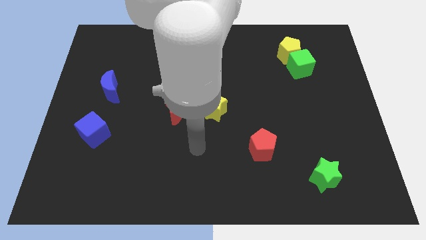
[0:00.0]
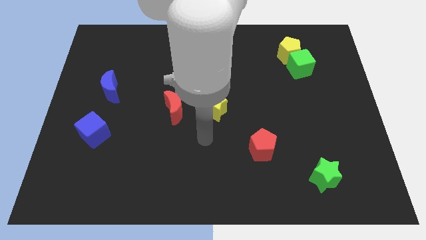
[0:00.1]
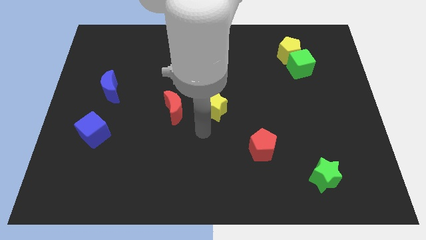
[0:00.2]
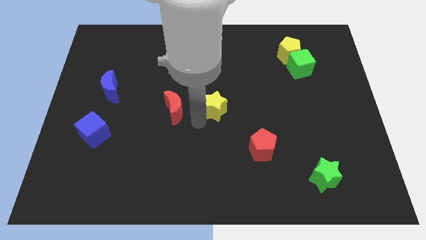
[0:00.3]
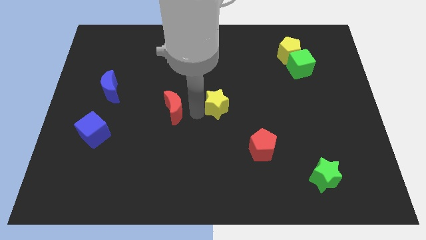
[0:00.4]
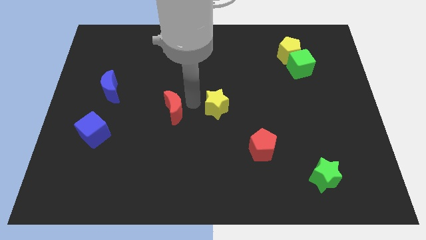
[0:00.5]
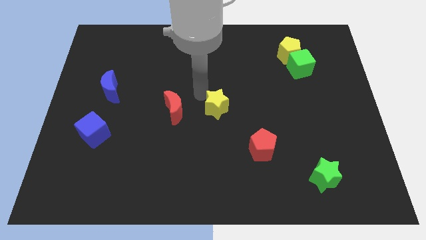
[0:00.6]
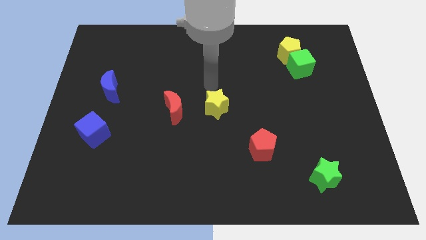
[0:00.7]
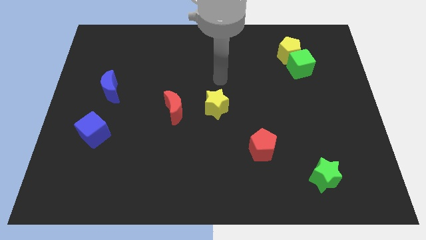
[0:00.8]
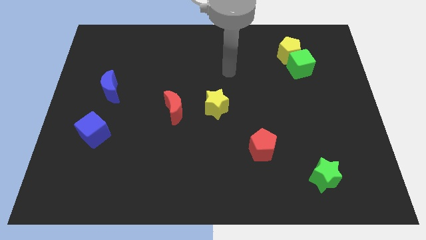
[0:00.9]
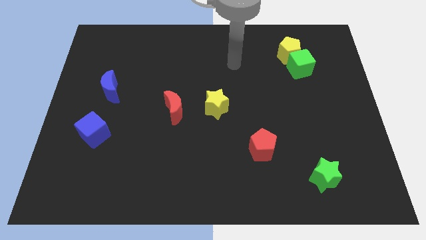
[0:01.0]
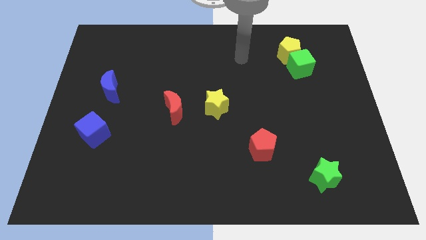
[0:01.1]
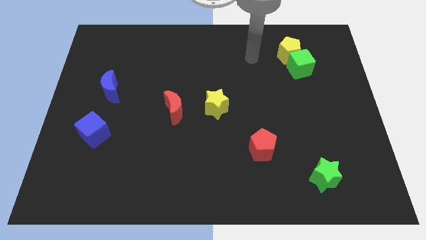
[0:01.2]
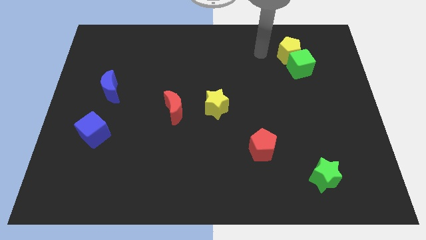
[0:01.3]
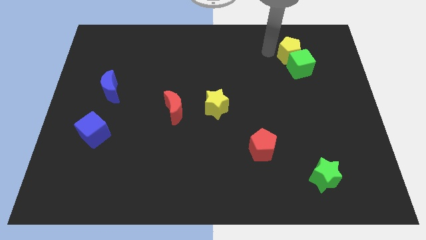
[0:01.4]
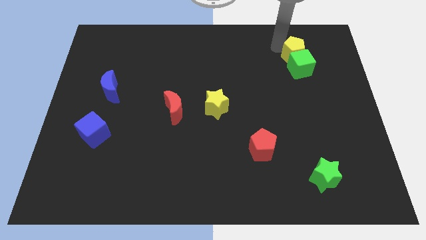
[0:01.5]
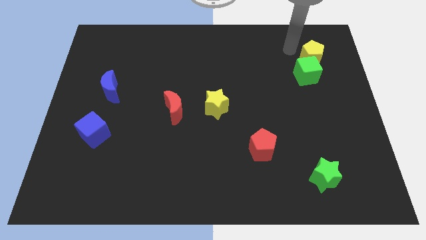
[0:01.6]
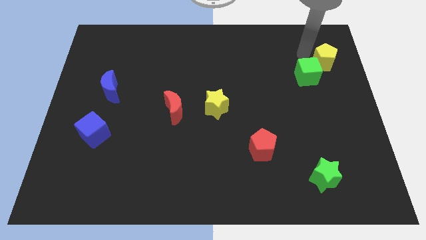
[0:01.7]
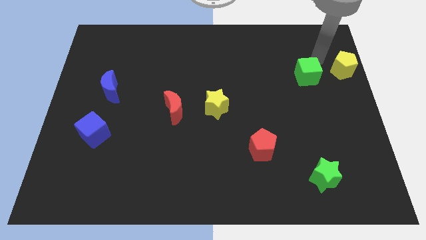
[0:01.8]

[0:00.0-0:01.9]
move the green cube away from the yellow pentagon

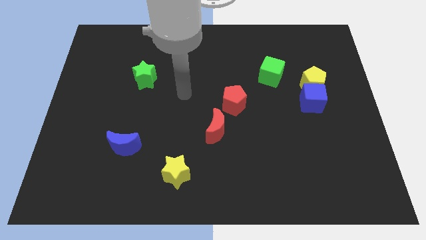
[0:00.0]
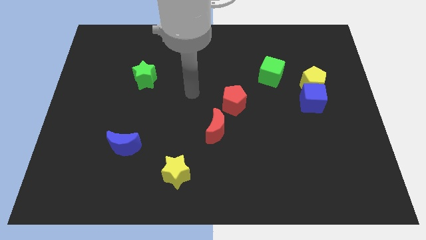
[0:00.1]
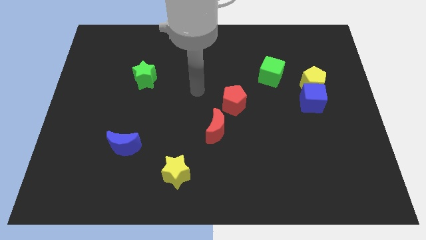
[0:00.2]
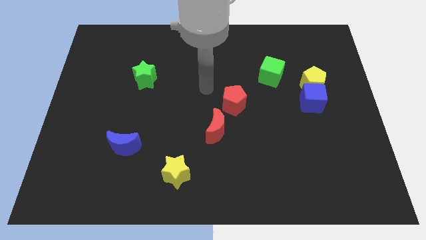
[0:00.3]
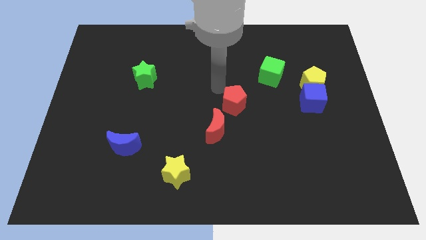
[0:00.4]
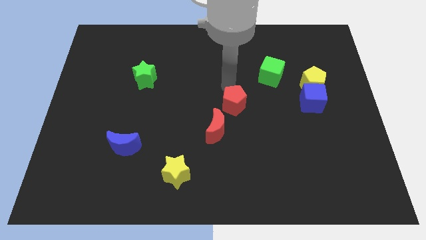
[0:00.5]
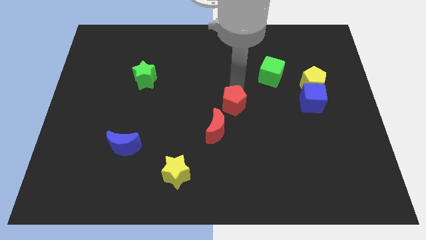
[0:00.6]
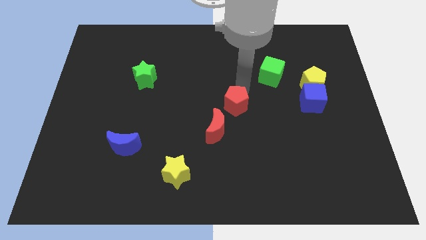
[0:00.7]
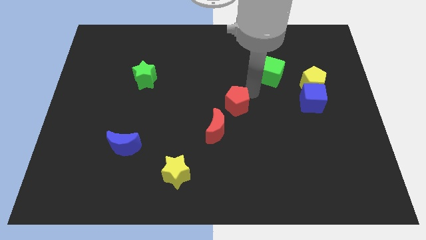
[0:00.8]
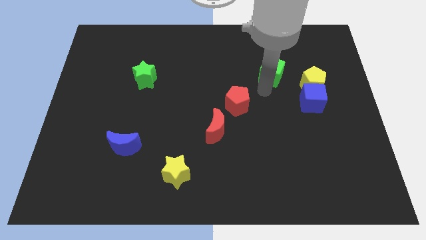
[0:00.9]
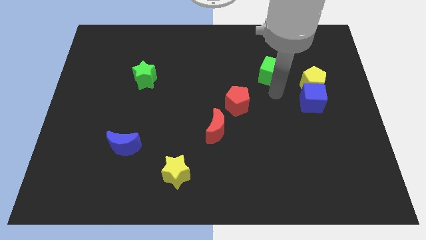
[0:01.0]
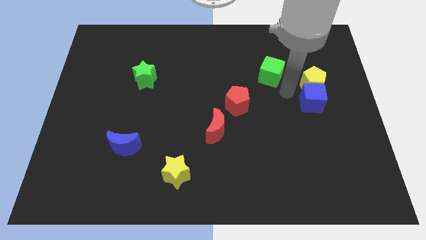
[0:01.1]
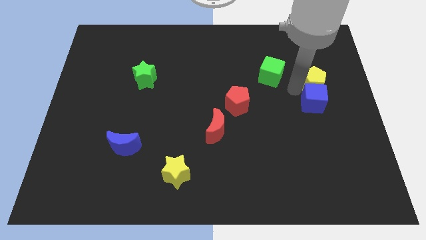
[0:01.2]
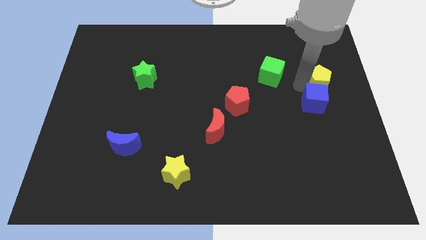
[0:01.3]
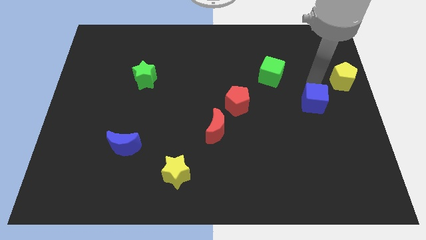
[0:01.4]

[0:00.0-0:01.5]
pull the blue cube apart from the yellow pentagon

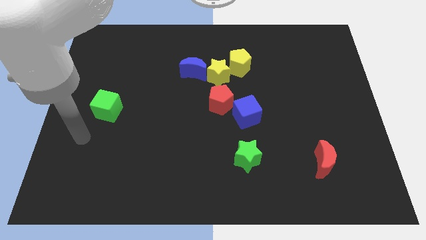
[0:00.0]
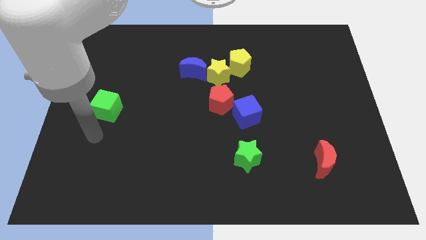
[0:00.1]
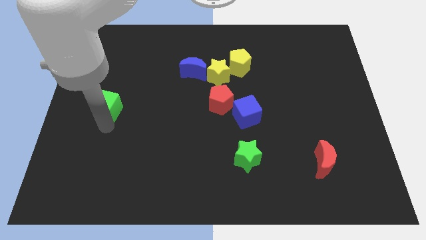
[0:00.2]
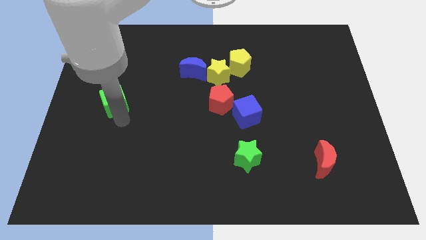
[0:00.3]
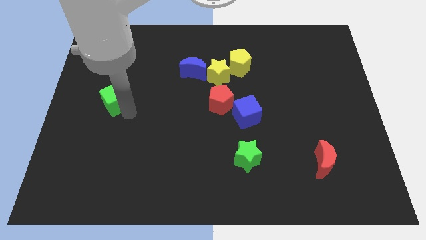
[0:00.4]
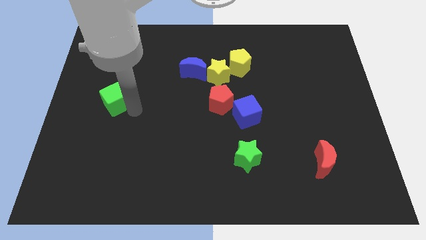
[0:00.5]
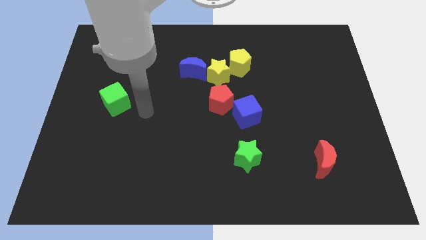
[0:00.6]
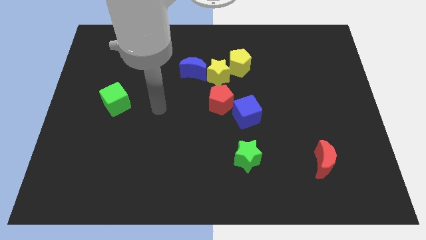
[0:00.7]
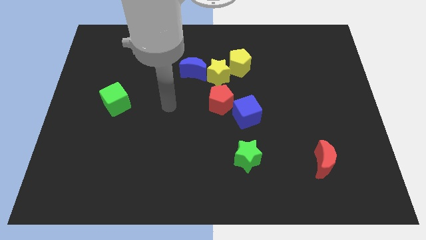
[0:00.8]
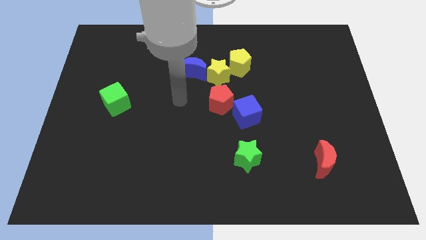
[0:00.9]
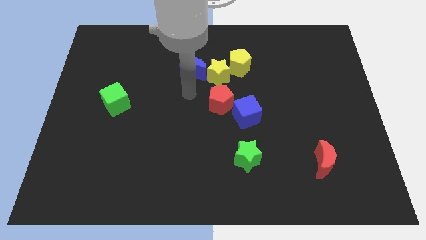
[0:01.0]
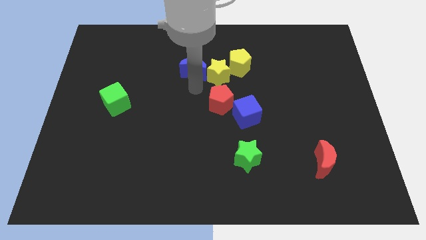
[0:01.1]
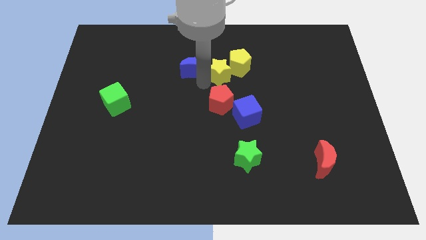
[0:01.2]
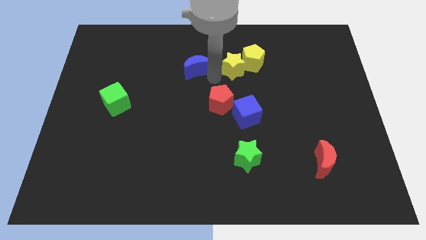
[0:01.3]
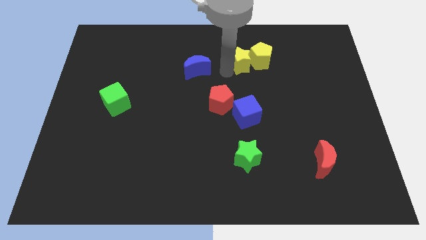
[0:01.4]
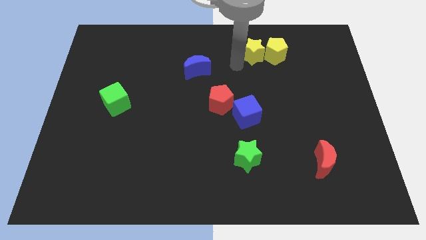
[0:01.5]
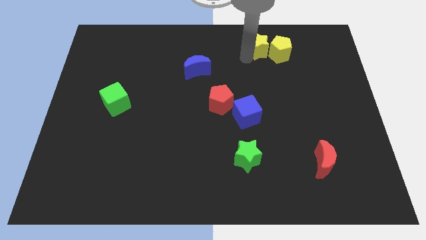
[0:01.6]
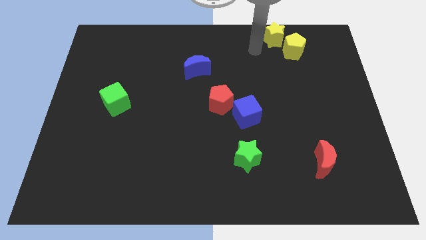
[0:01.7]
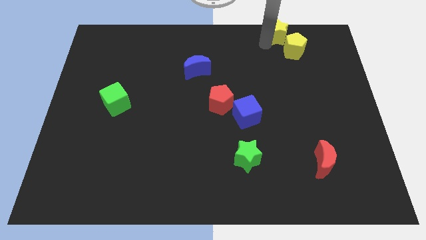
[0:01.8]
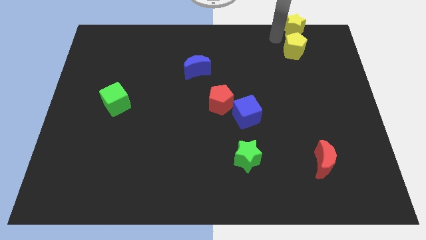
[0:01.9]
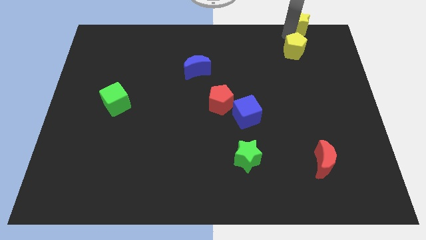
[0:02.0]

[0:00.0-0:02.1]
separate the yellow pentagon from the yellow star

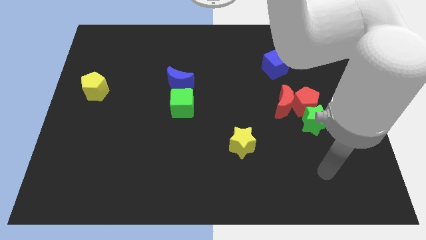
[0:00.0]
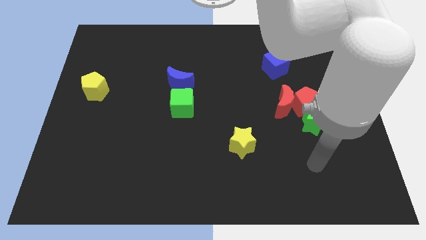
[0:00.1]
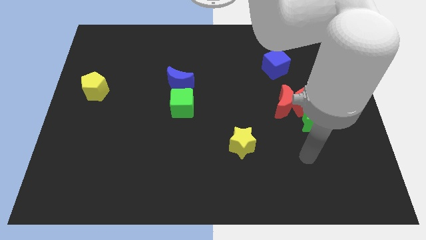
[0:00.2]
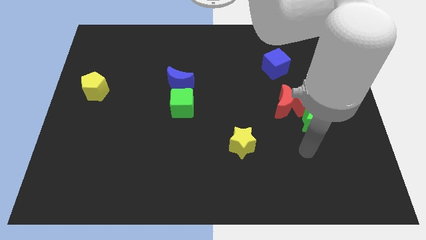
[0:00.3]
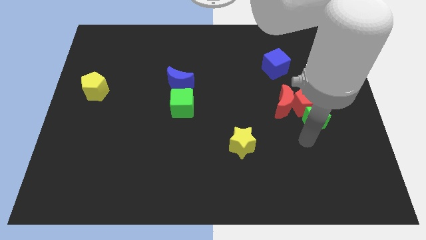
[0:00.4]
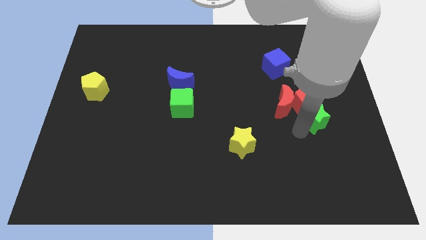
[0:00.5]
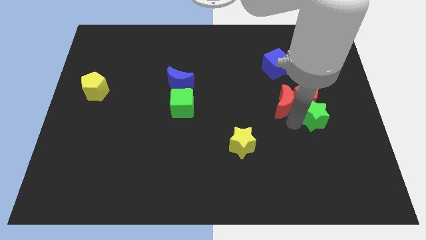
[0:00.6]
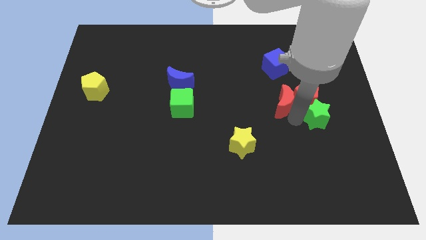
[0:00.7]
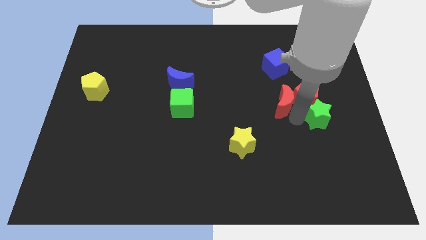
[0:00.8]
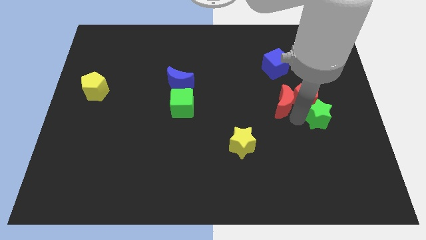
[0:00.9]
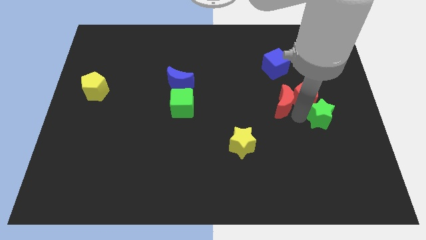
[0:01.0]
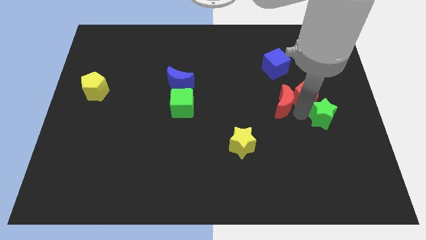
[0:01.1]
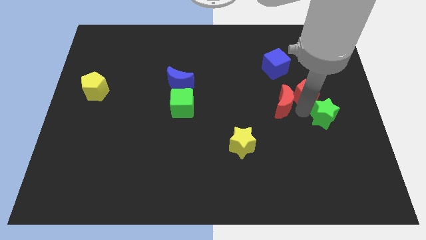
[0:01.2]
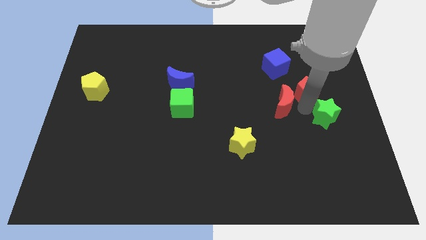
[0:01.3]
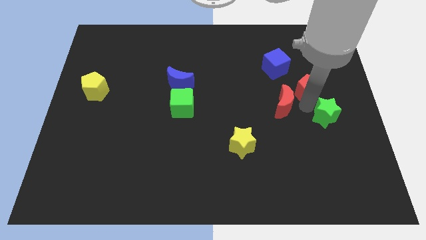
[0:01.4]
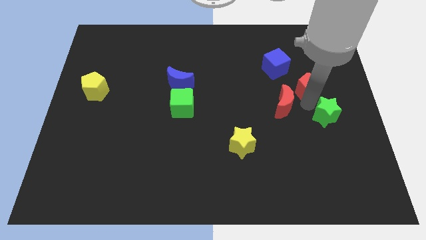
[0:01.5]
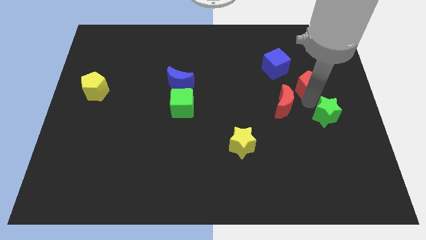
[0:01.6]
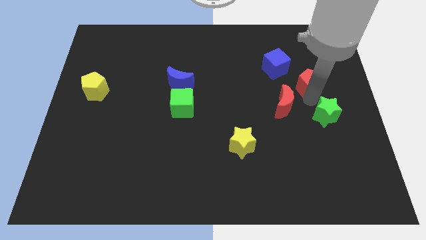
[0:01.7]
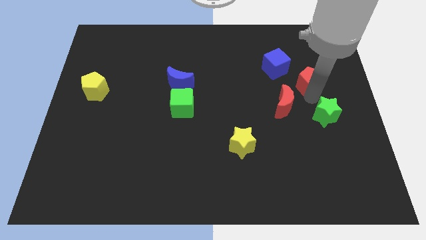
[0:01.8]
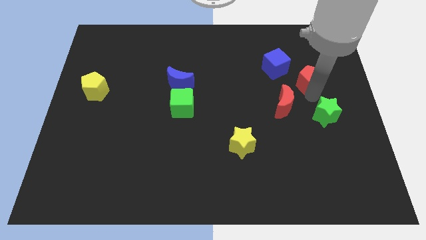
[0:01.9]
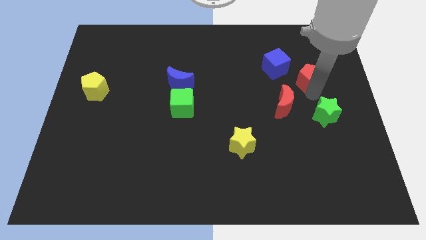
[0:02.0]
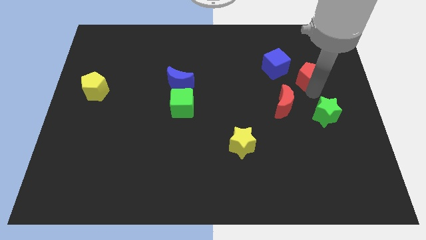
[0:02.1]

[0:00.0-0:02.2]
move the red pentagon away from the red moon and green star

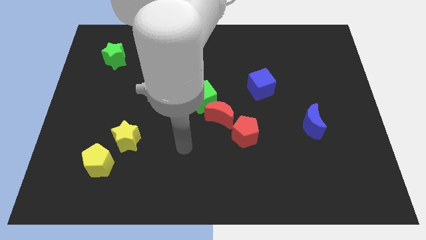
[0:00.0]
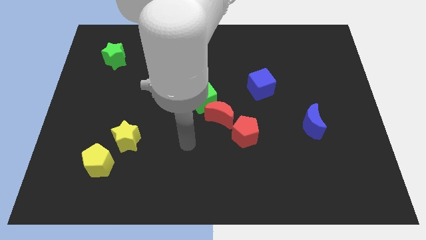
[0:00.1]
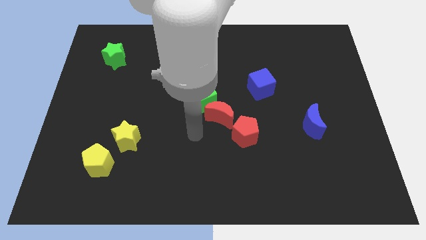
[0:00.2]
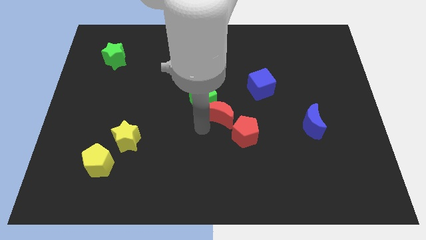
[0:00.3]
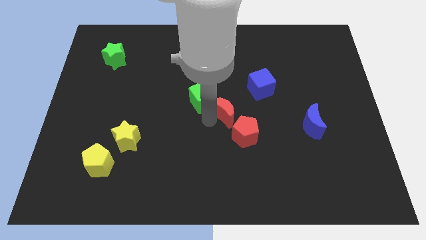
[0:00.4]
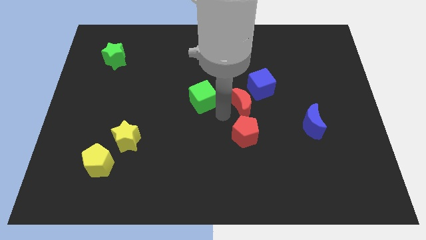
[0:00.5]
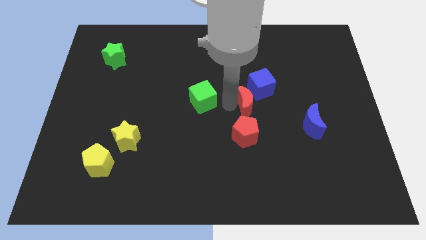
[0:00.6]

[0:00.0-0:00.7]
separate the green cube from the red moon

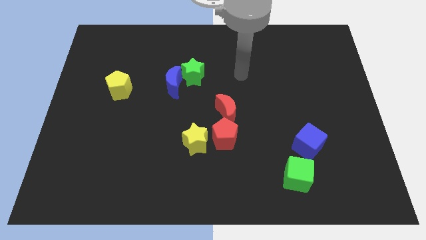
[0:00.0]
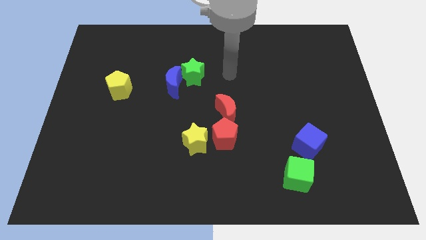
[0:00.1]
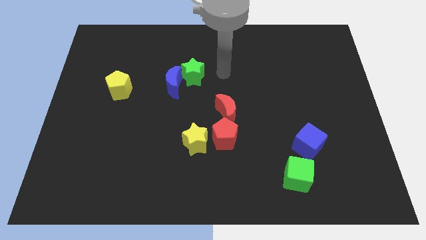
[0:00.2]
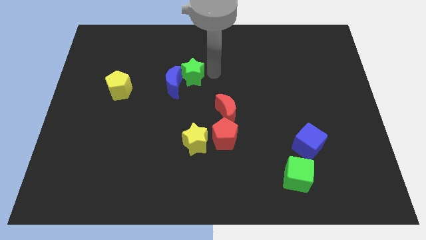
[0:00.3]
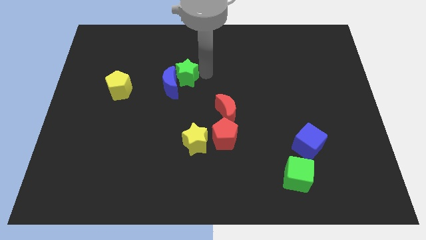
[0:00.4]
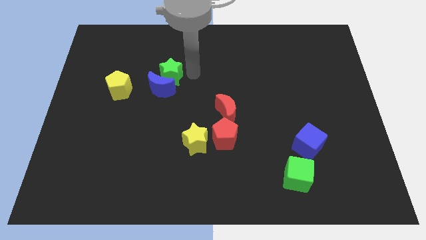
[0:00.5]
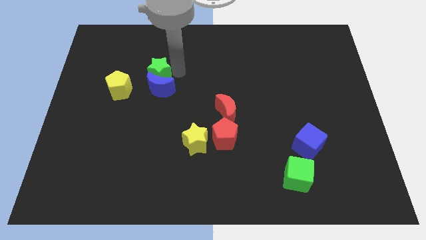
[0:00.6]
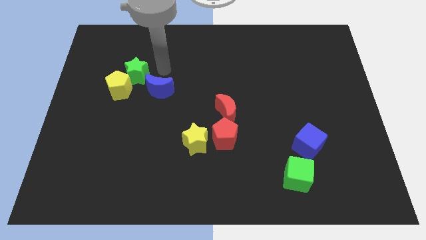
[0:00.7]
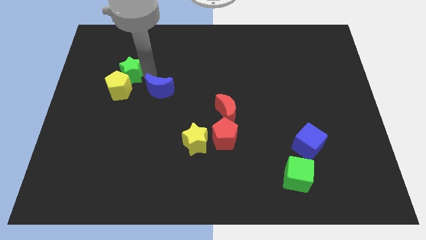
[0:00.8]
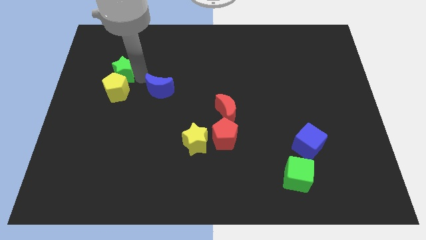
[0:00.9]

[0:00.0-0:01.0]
move the blue moon away from the green star
